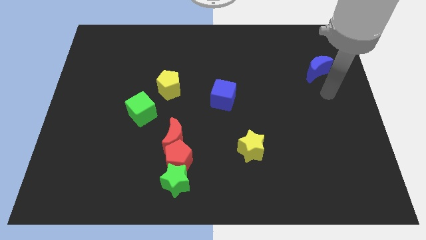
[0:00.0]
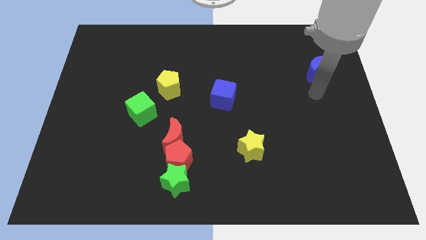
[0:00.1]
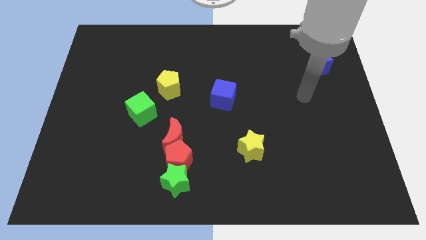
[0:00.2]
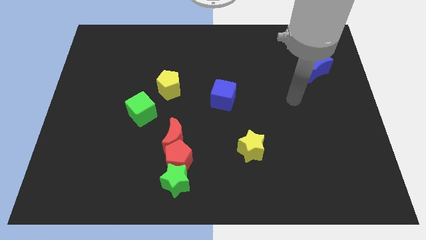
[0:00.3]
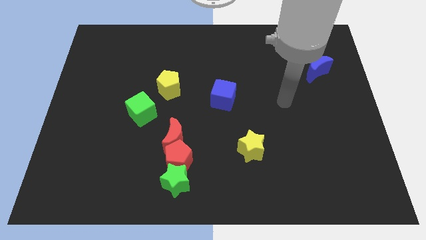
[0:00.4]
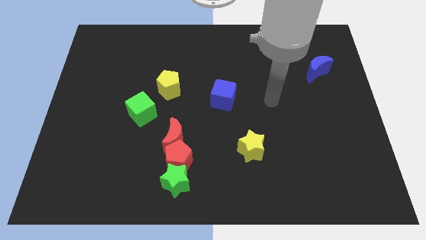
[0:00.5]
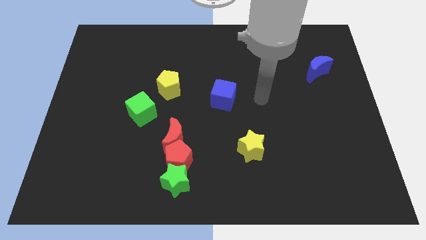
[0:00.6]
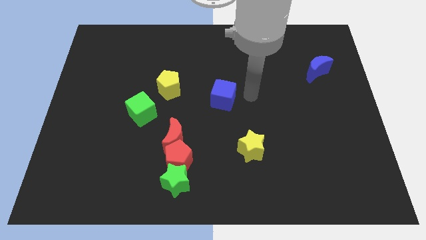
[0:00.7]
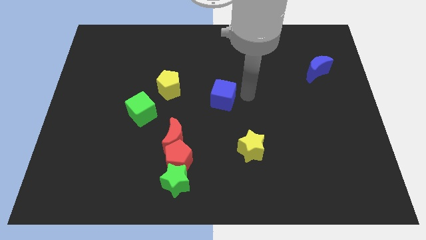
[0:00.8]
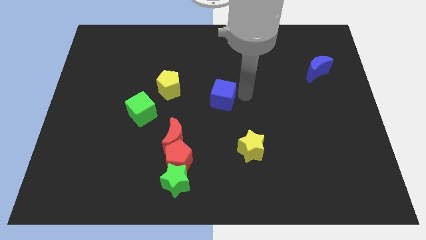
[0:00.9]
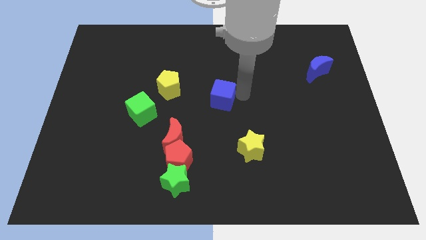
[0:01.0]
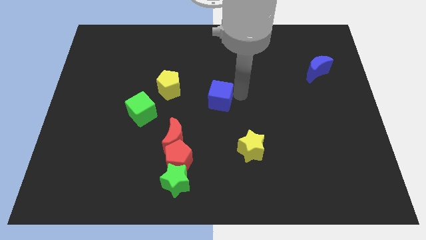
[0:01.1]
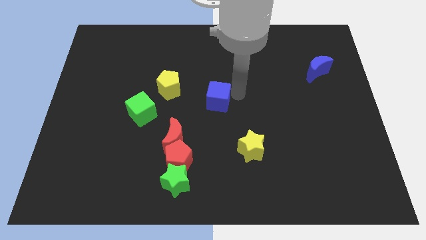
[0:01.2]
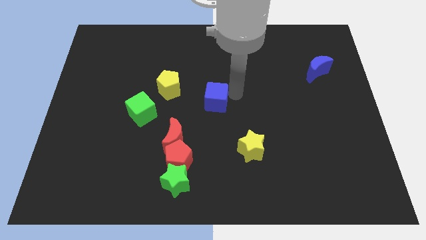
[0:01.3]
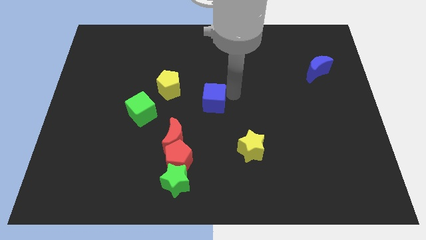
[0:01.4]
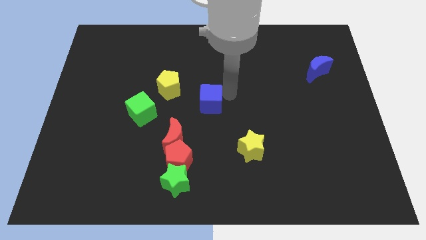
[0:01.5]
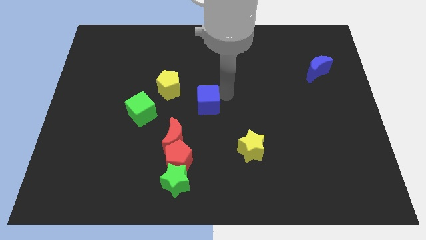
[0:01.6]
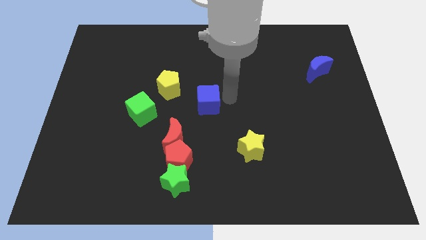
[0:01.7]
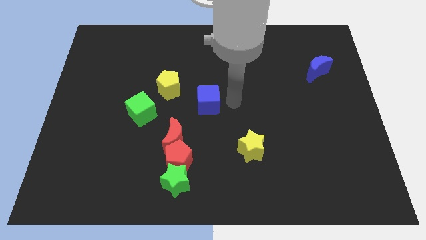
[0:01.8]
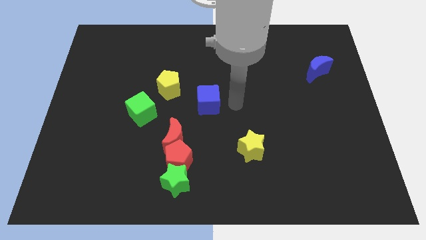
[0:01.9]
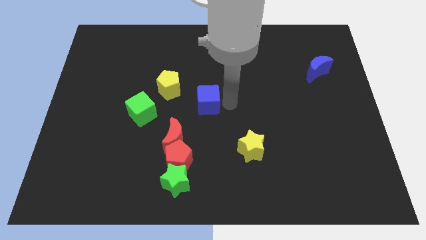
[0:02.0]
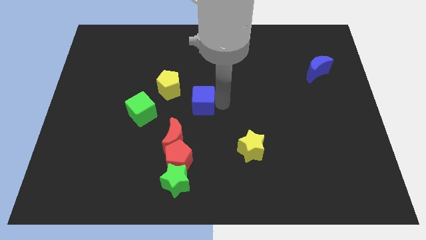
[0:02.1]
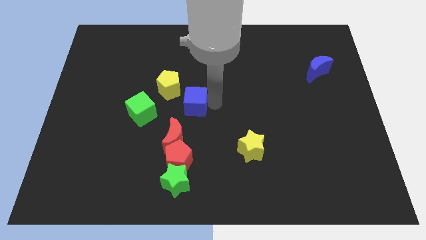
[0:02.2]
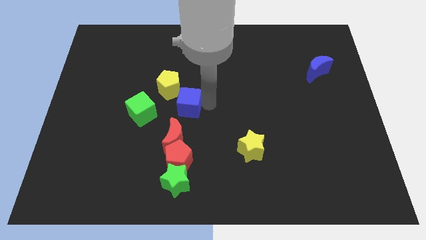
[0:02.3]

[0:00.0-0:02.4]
push the blue cube slightly left

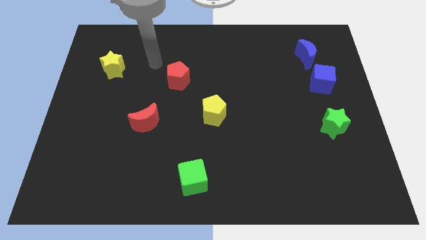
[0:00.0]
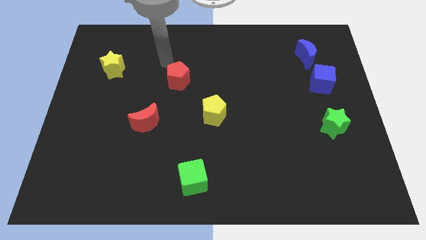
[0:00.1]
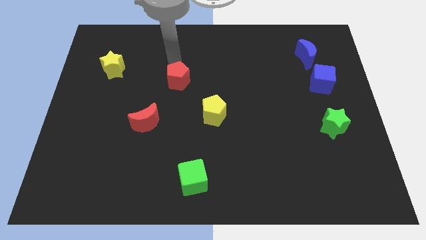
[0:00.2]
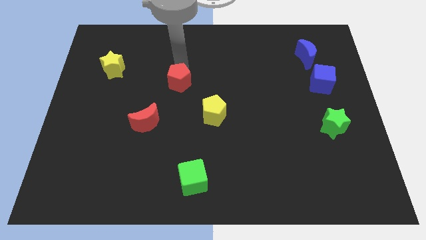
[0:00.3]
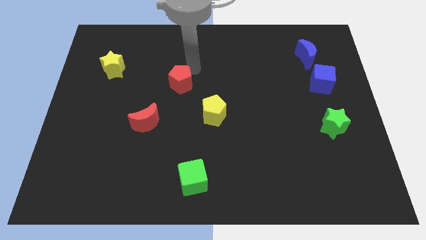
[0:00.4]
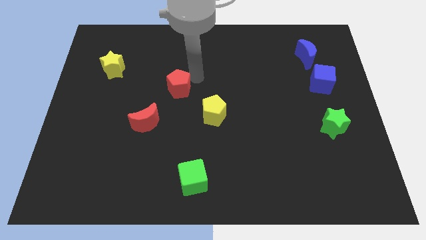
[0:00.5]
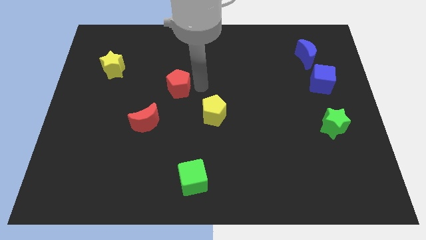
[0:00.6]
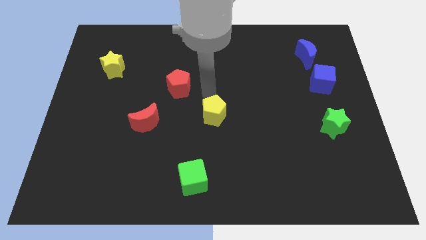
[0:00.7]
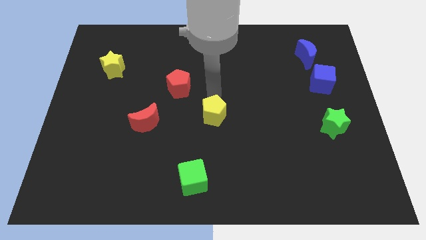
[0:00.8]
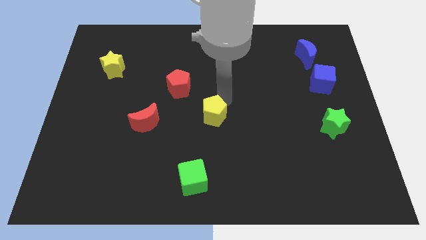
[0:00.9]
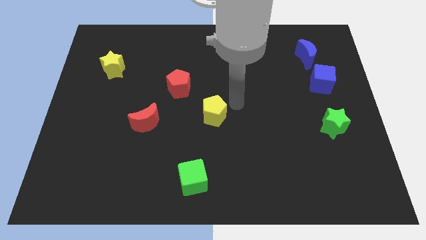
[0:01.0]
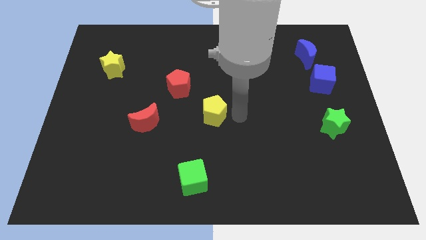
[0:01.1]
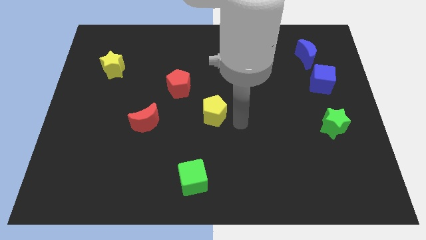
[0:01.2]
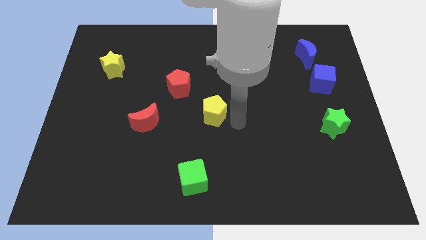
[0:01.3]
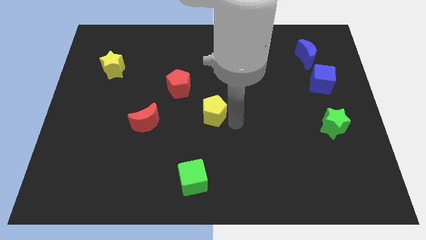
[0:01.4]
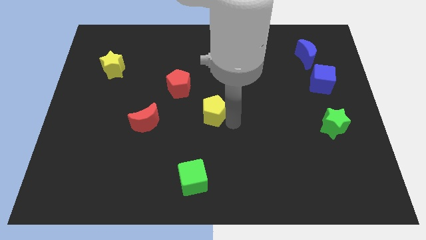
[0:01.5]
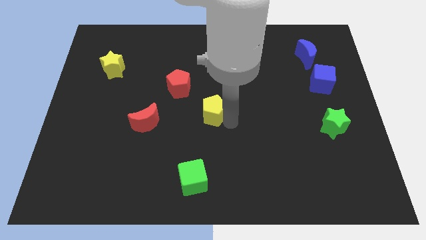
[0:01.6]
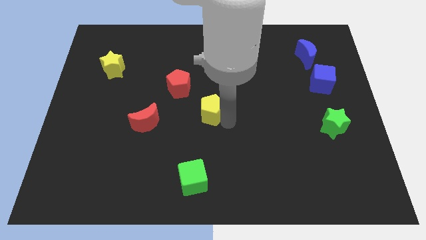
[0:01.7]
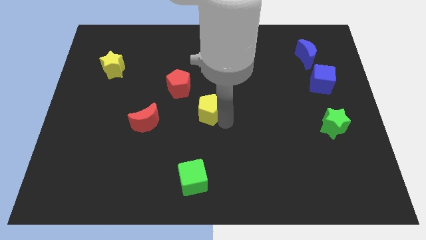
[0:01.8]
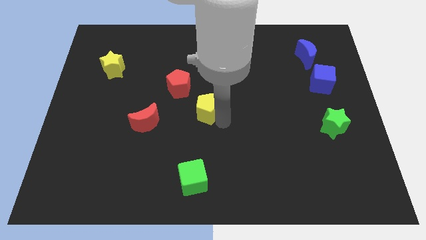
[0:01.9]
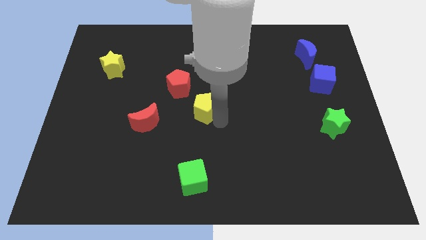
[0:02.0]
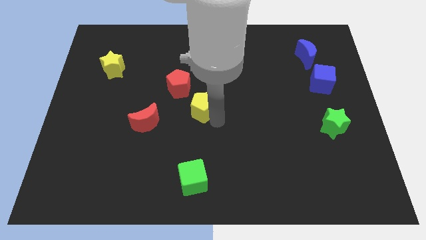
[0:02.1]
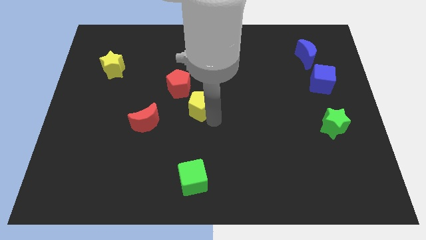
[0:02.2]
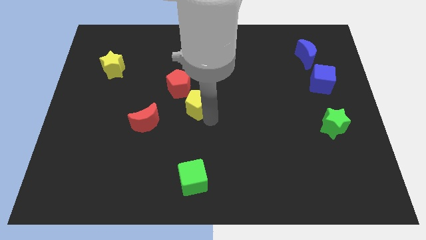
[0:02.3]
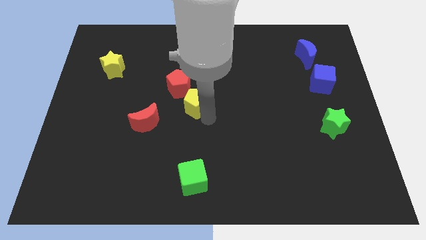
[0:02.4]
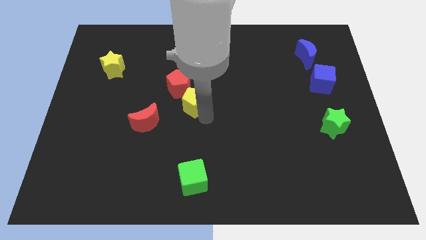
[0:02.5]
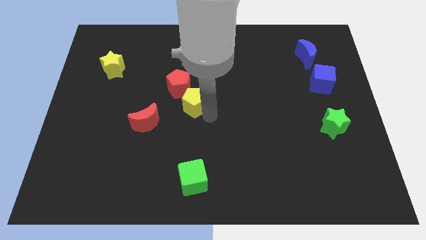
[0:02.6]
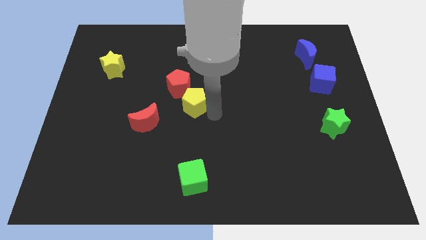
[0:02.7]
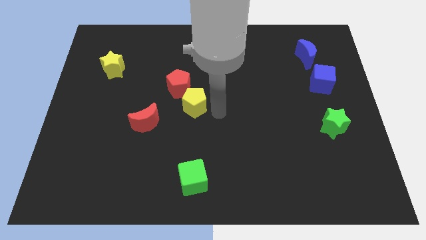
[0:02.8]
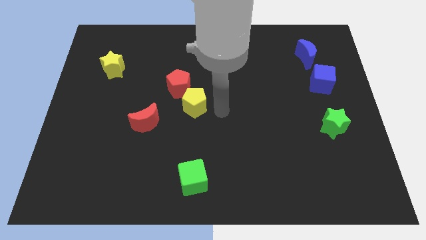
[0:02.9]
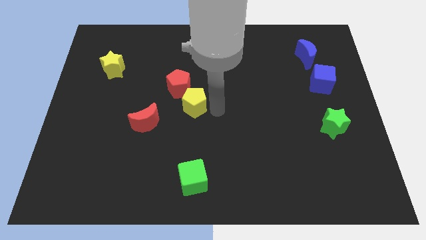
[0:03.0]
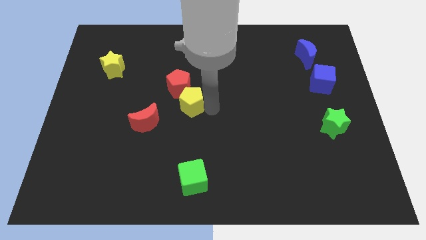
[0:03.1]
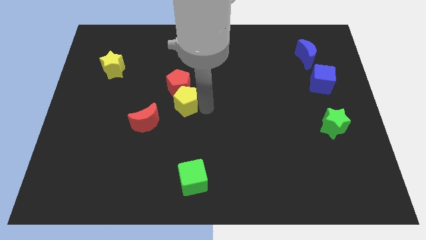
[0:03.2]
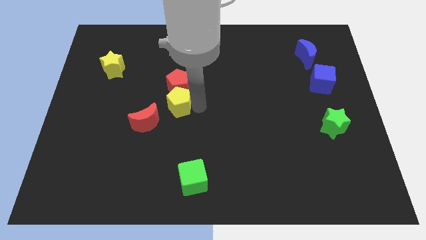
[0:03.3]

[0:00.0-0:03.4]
move the yellow pentagon up and left a little bit

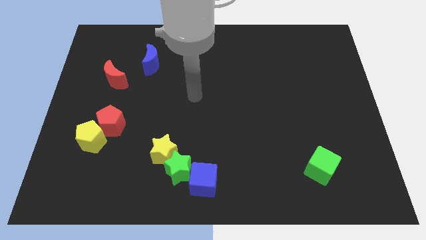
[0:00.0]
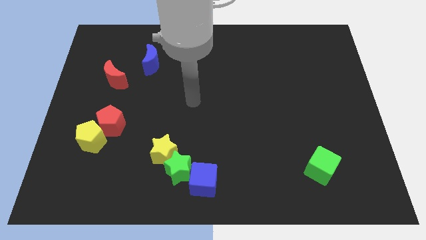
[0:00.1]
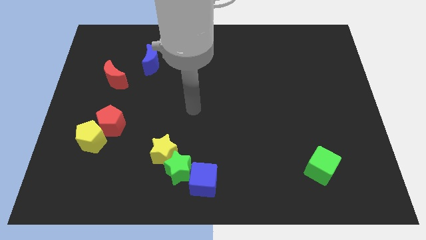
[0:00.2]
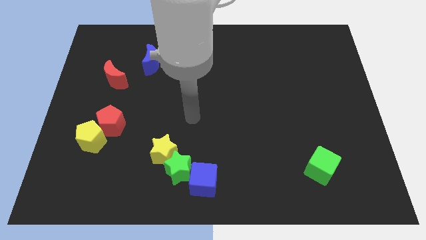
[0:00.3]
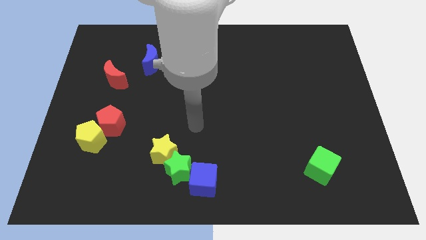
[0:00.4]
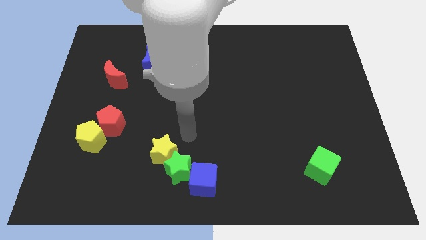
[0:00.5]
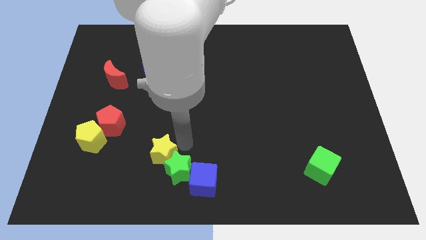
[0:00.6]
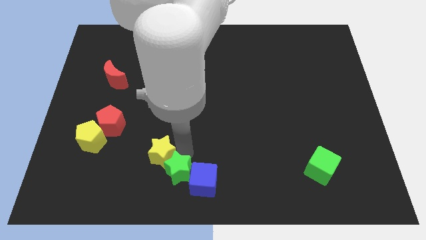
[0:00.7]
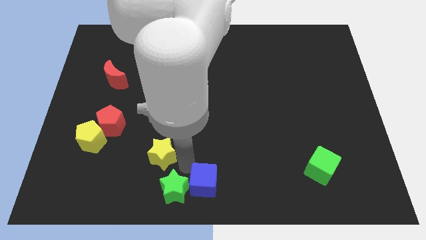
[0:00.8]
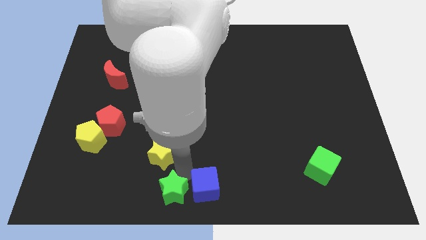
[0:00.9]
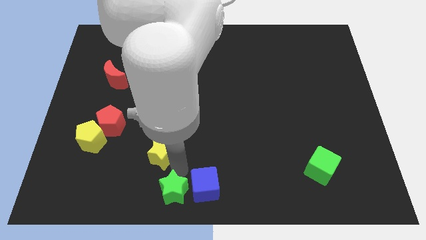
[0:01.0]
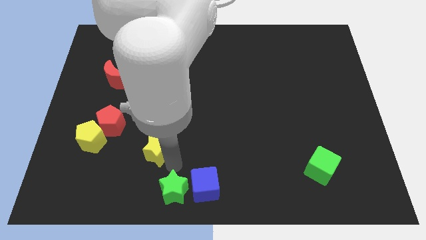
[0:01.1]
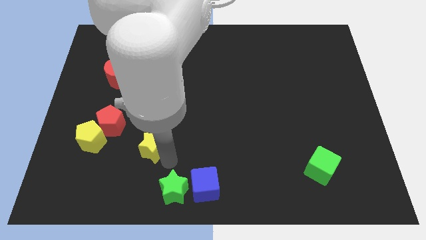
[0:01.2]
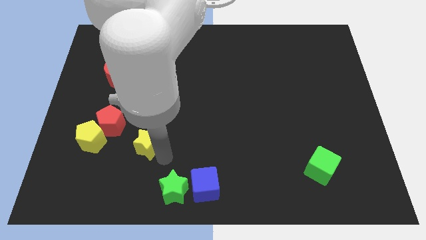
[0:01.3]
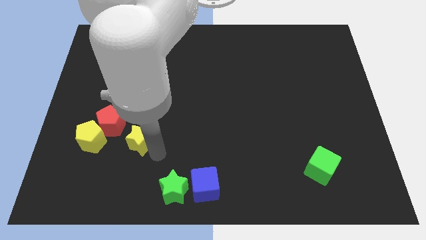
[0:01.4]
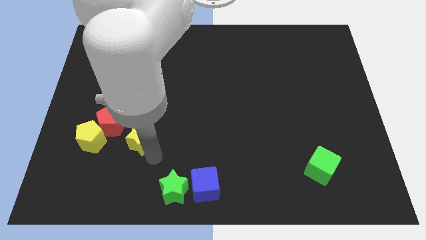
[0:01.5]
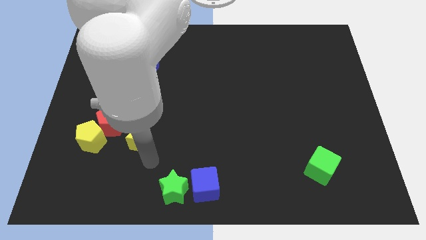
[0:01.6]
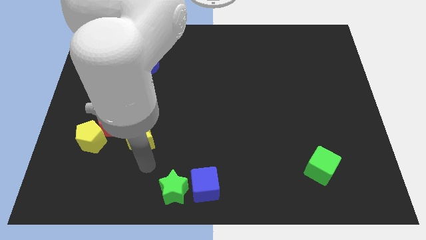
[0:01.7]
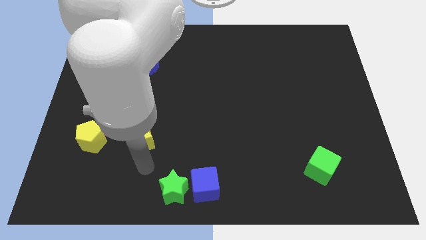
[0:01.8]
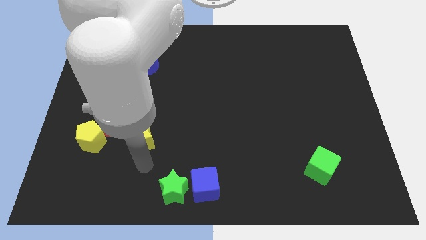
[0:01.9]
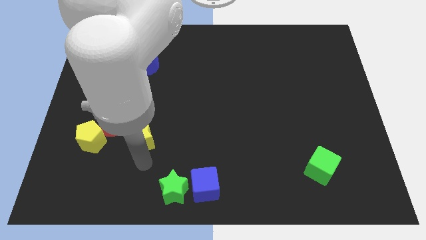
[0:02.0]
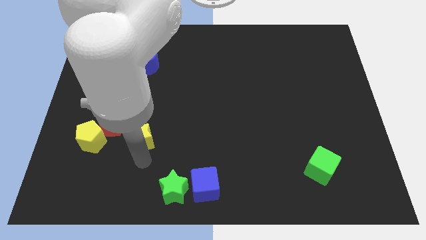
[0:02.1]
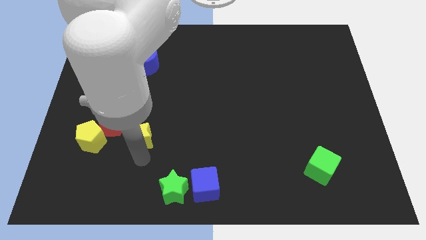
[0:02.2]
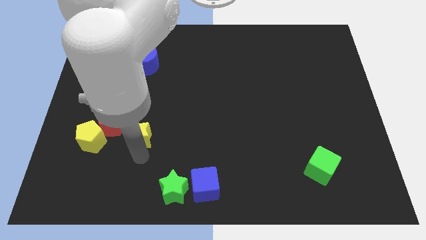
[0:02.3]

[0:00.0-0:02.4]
slide the yellow star slightly upwards and left

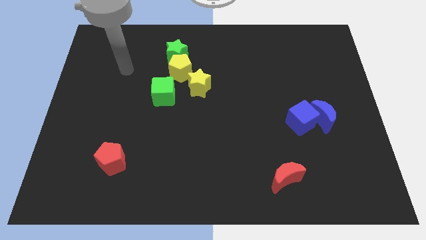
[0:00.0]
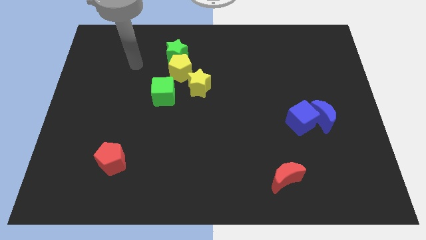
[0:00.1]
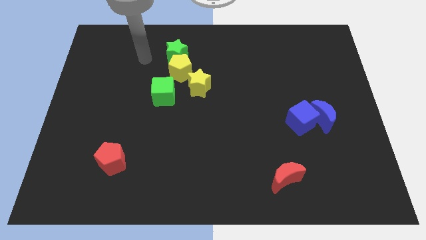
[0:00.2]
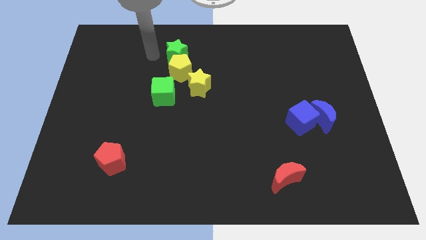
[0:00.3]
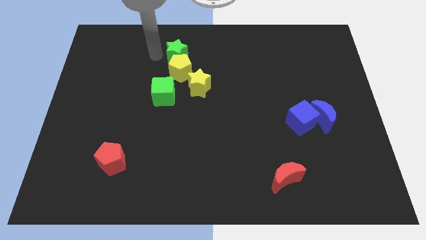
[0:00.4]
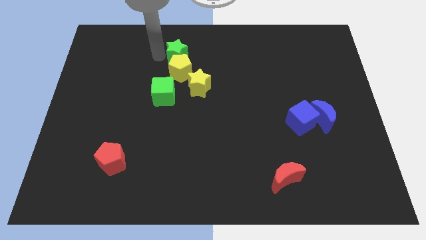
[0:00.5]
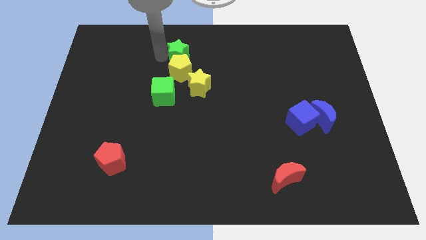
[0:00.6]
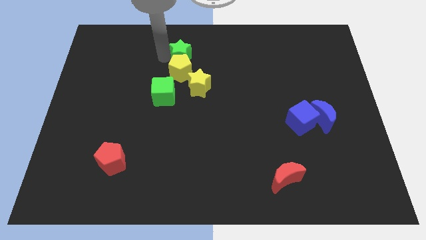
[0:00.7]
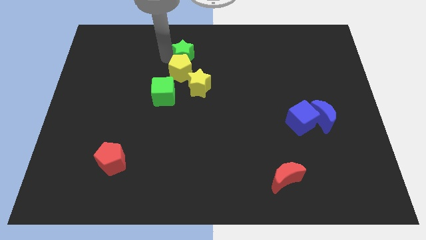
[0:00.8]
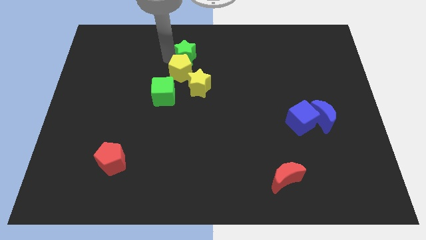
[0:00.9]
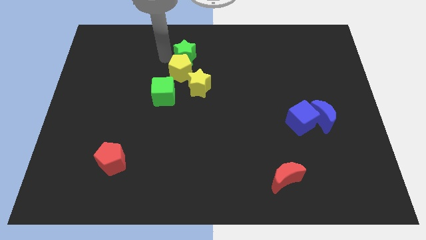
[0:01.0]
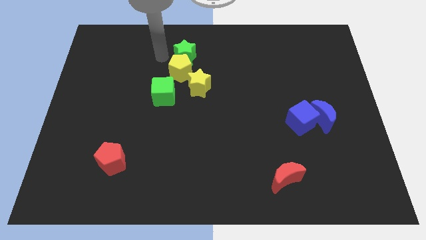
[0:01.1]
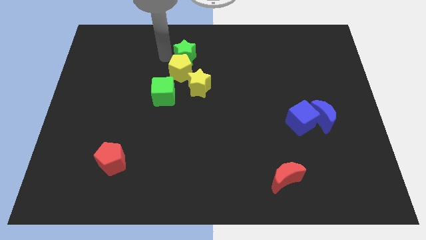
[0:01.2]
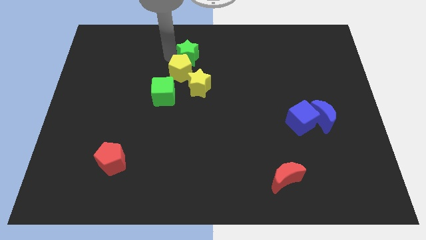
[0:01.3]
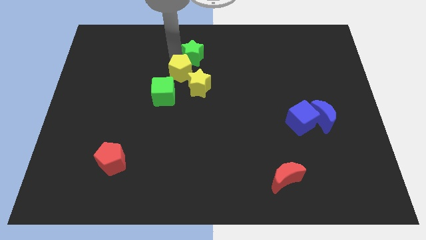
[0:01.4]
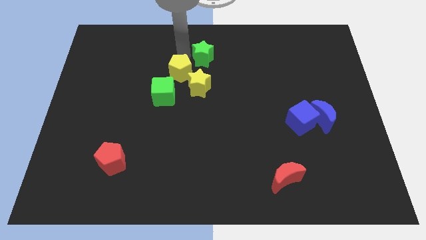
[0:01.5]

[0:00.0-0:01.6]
slide the green star right a little bit
